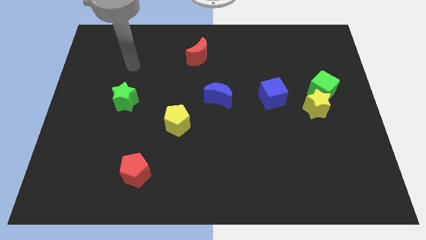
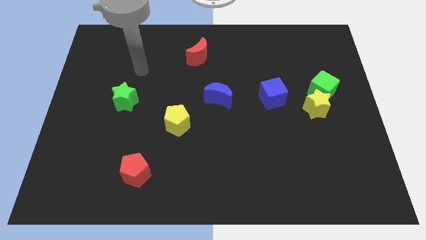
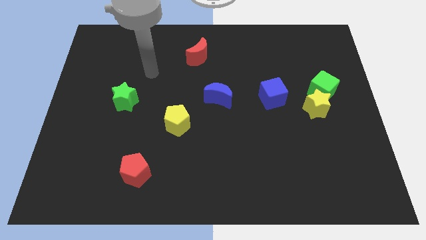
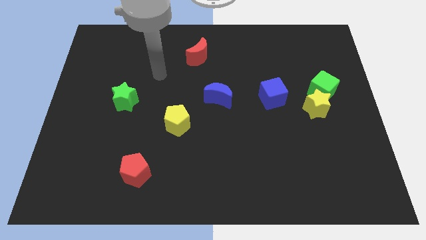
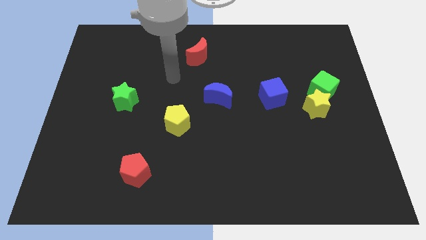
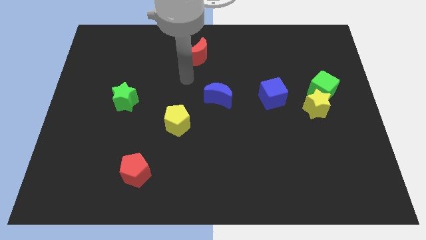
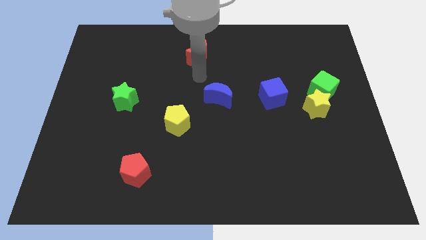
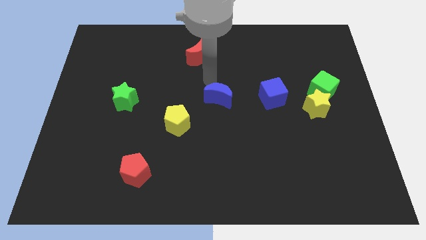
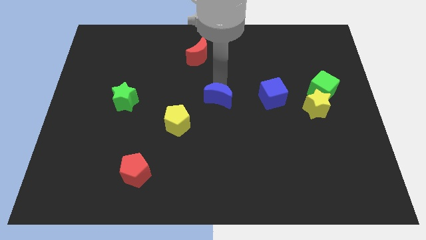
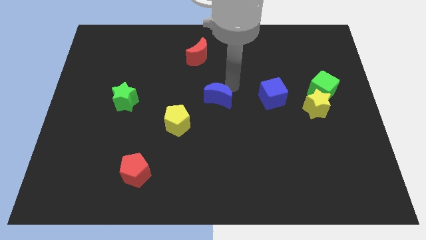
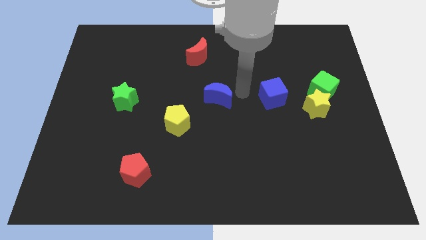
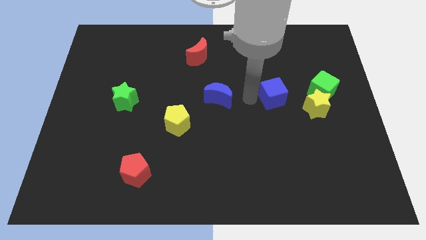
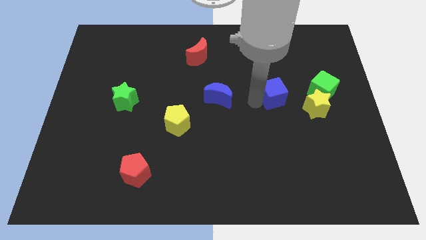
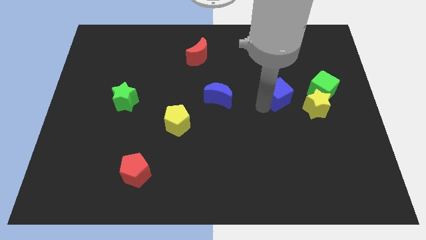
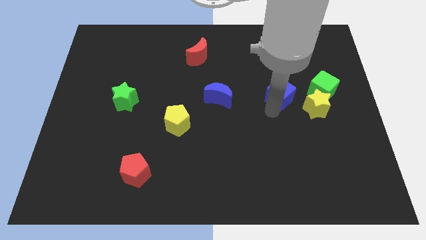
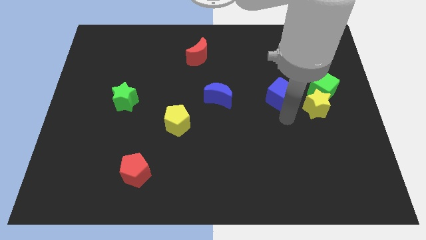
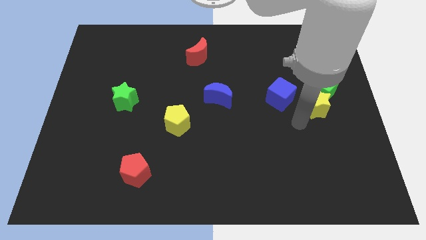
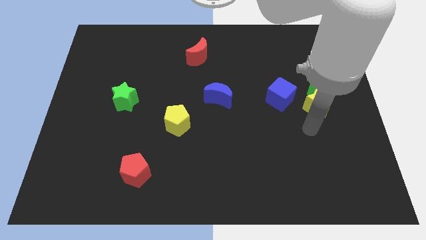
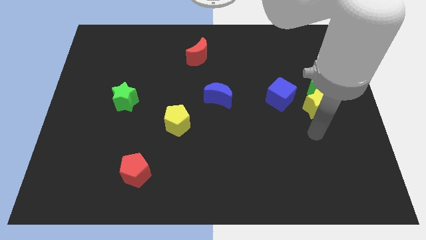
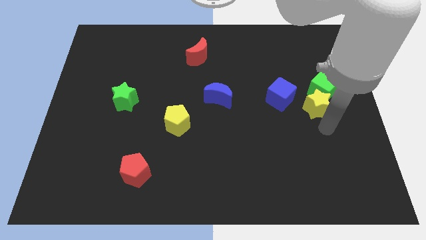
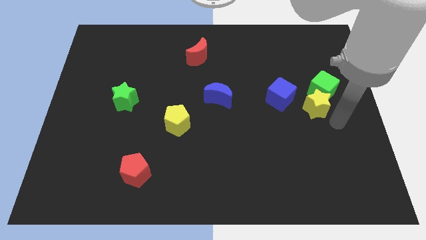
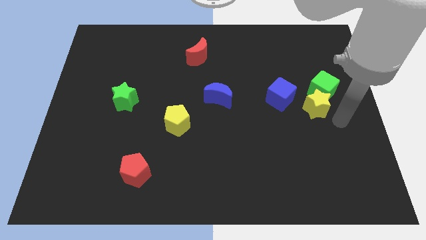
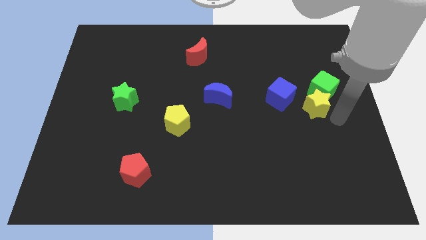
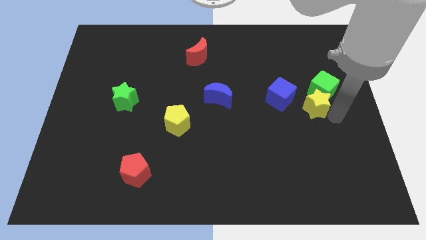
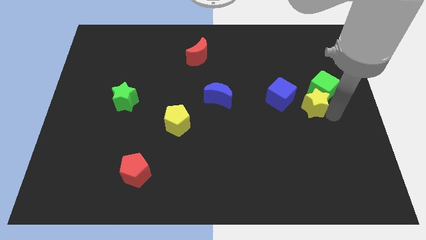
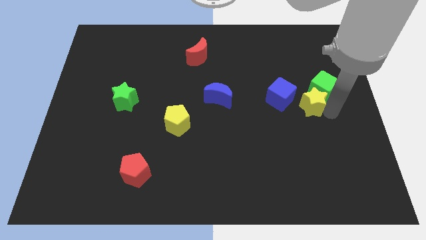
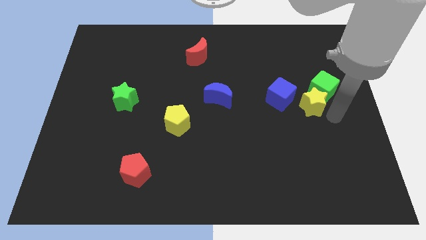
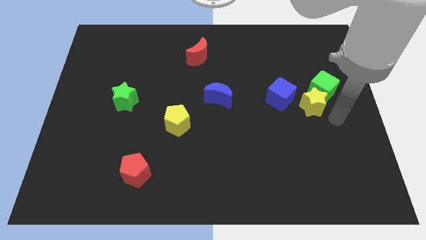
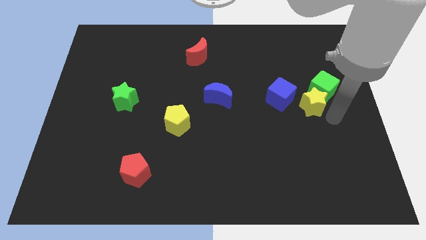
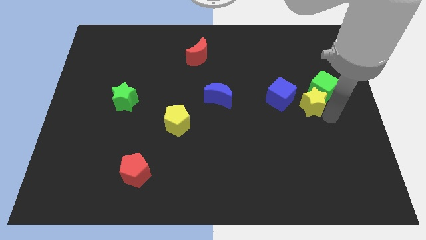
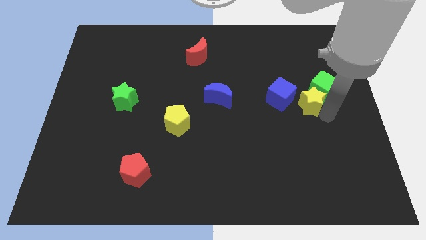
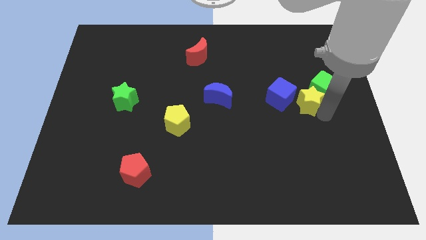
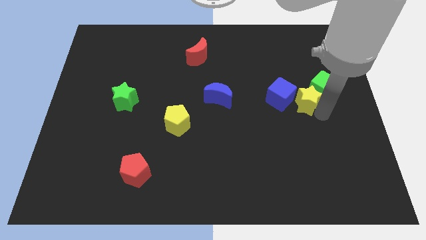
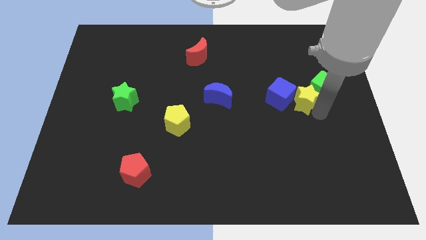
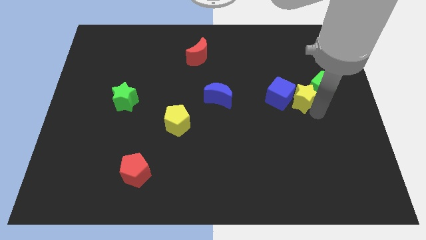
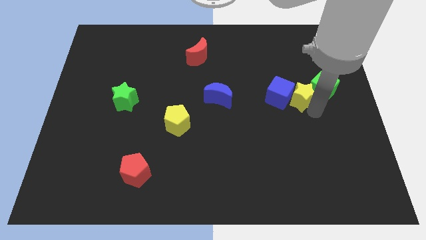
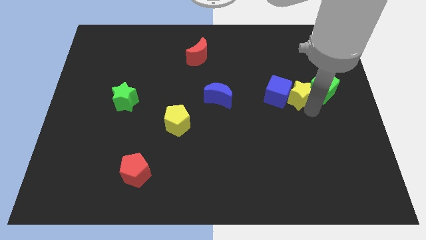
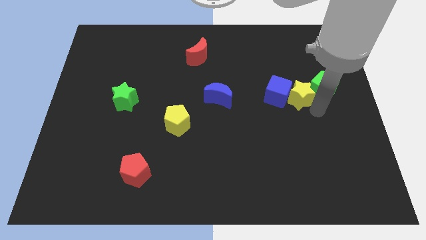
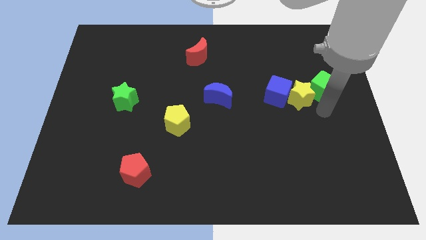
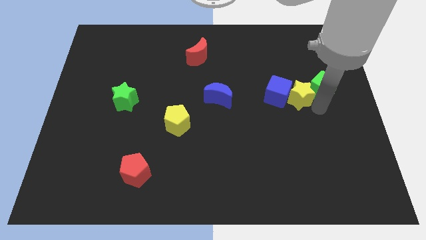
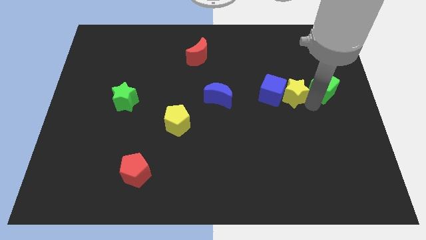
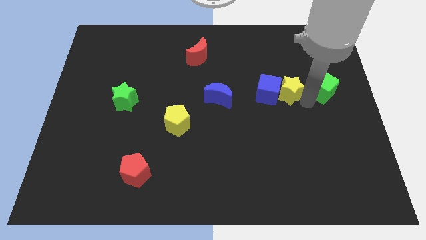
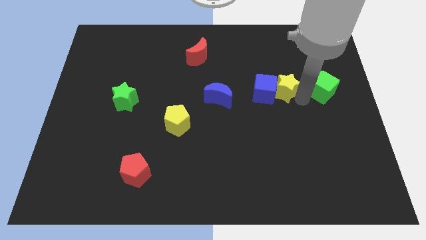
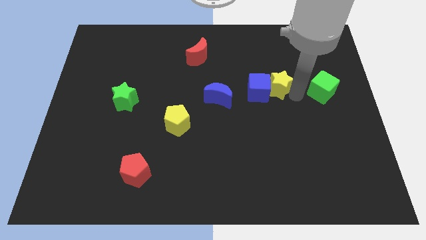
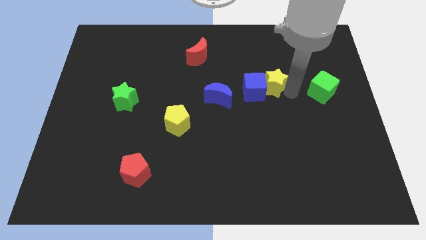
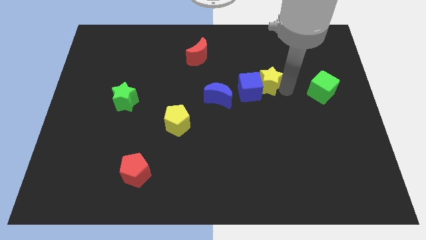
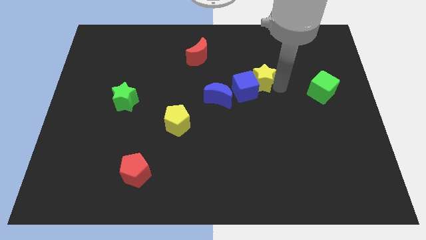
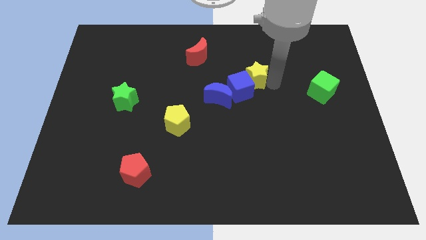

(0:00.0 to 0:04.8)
slide the yellow star diagonally up and to the right of the blue moon

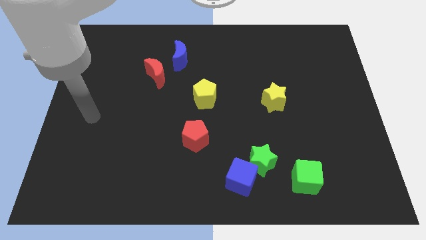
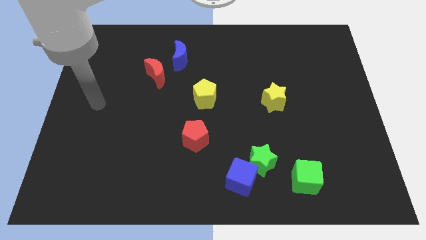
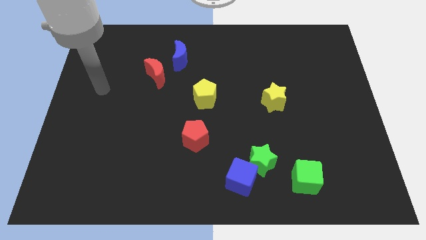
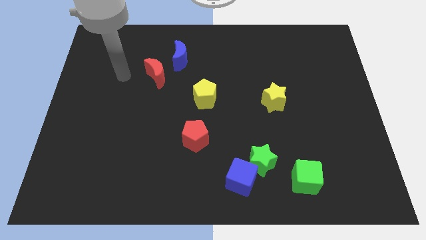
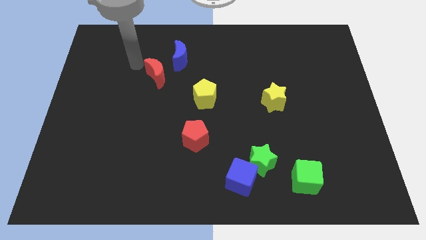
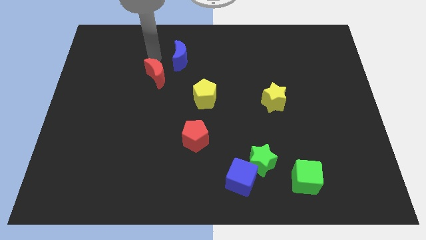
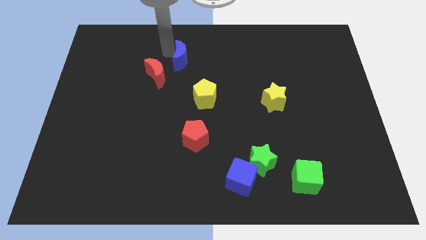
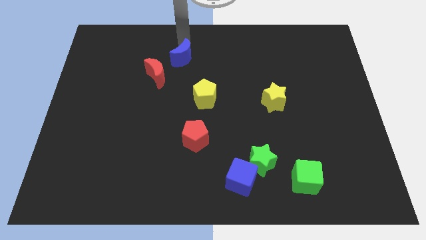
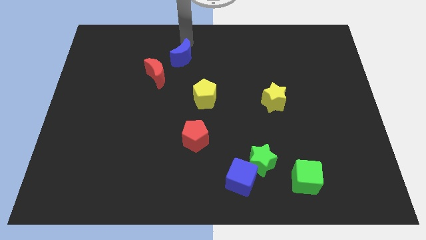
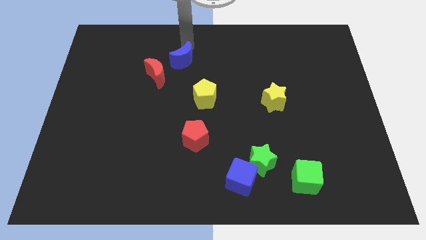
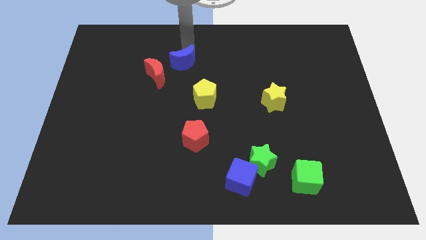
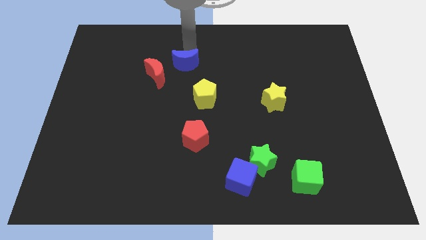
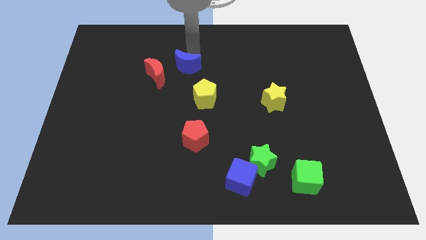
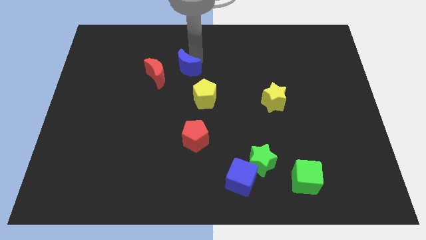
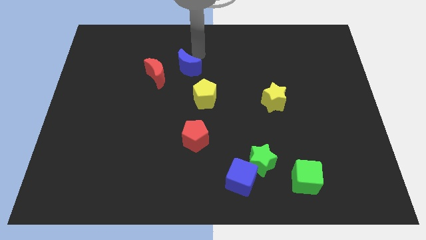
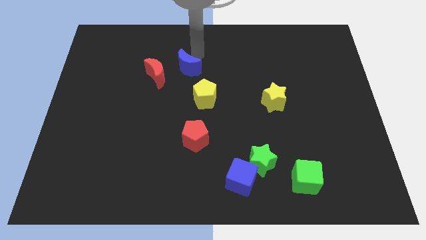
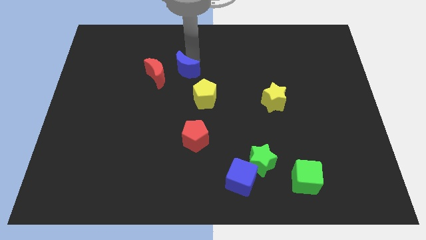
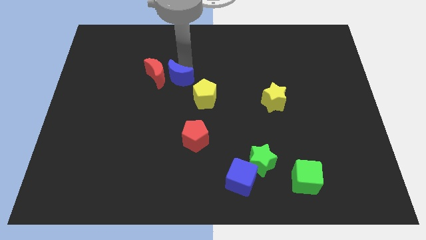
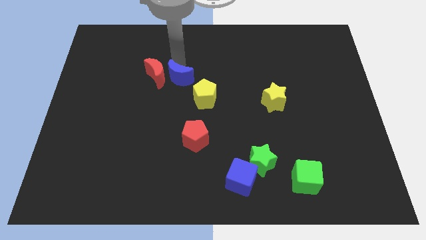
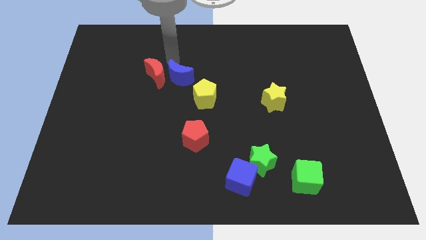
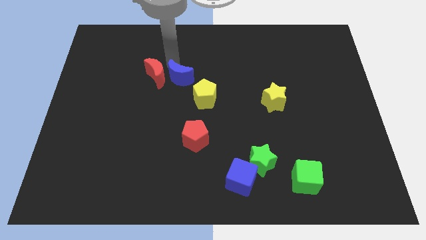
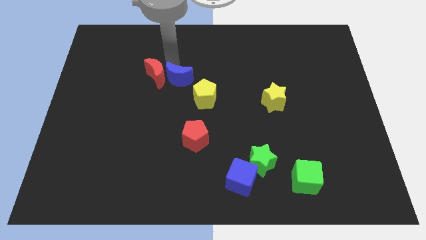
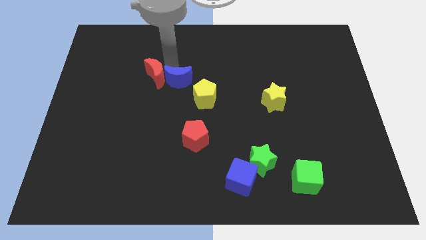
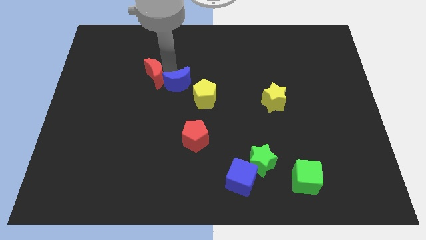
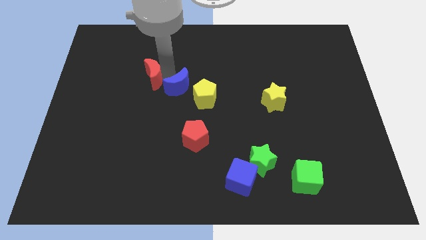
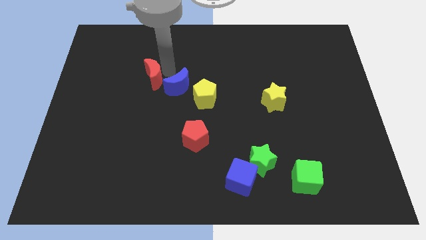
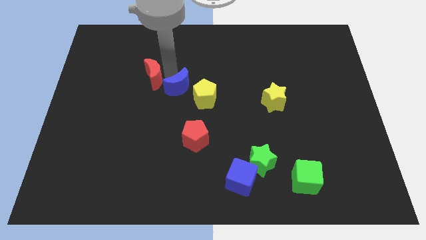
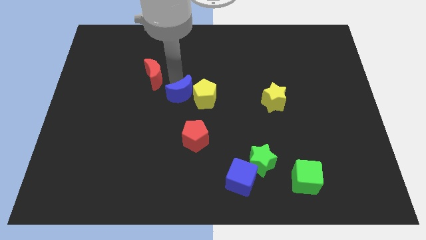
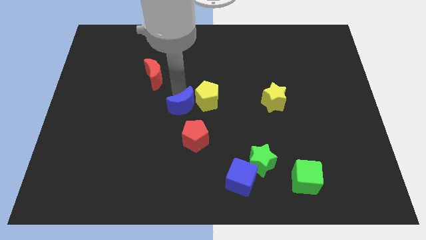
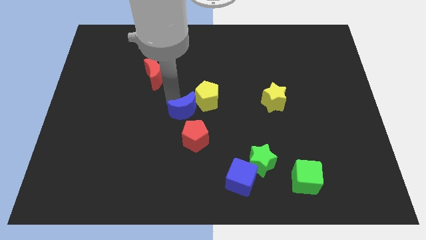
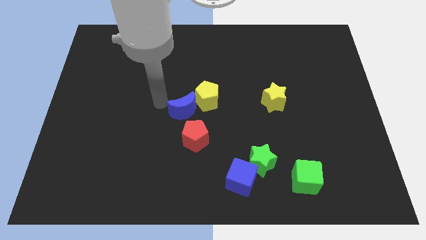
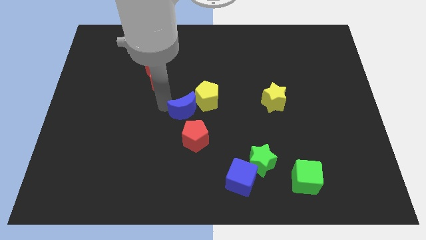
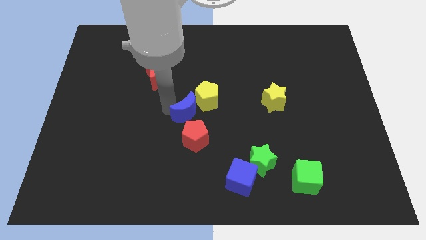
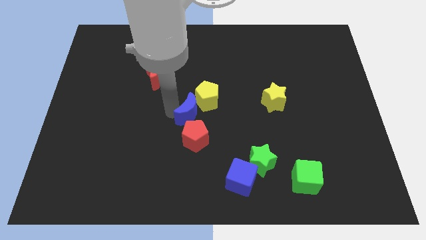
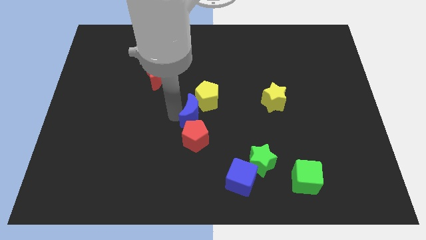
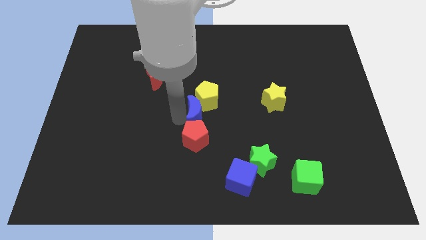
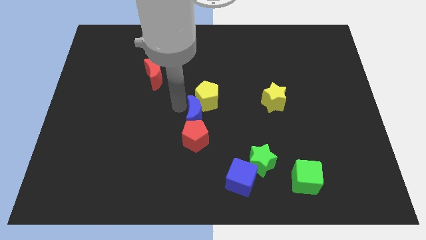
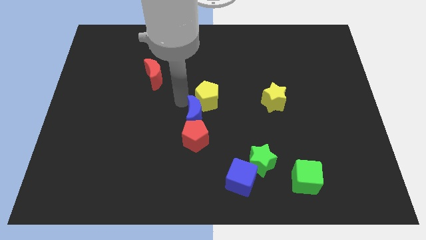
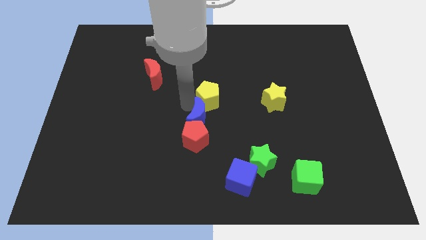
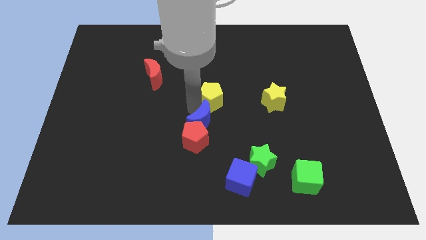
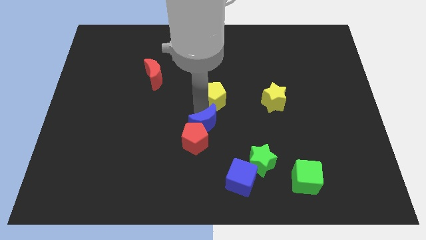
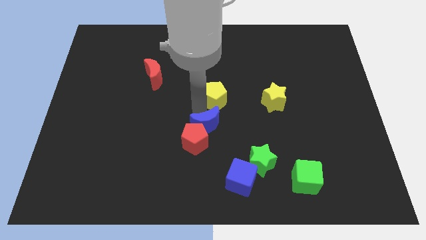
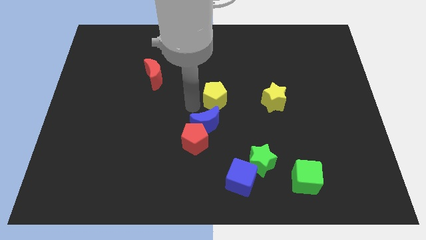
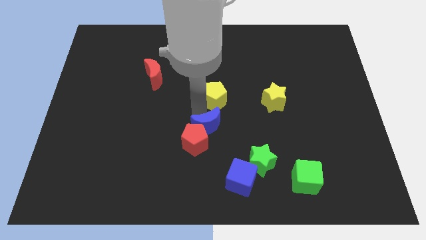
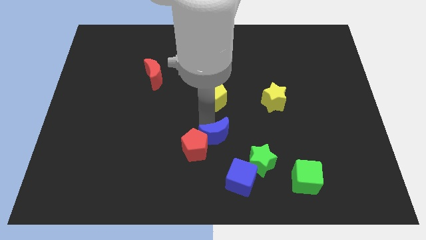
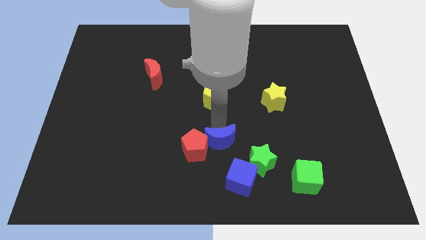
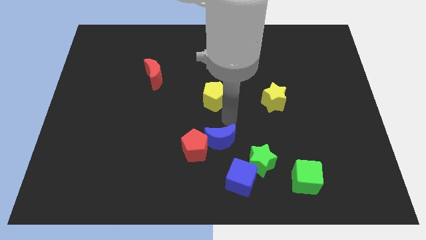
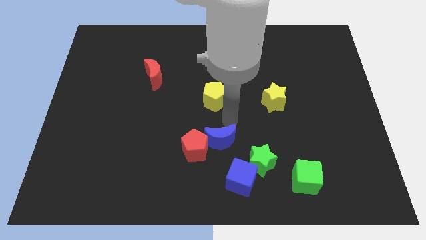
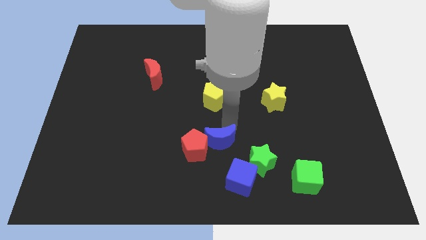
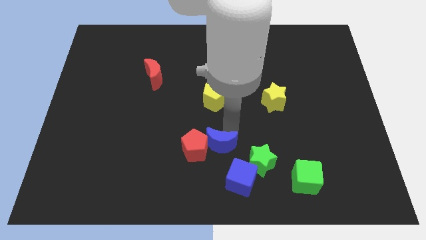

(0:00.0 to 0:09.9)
move the blue moon to the left of the green star
